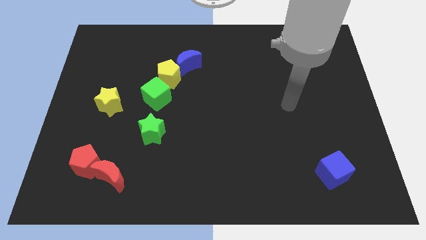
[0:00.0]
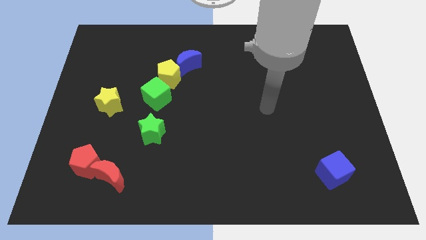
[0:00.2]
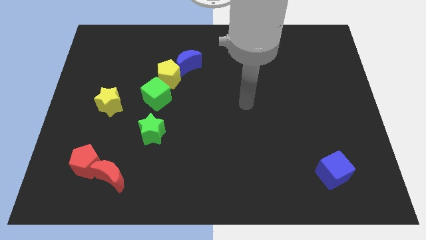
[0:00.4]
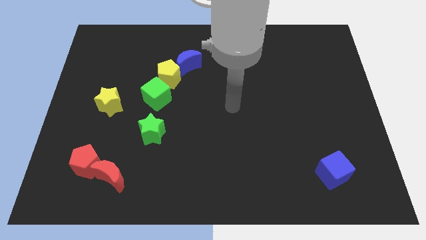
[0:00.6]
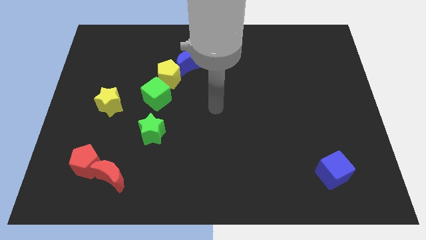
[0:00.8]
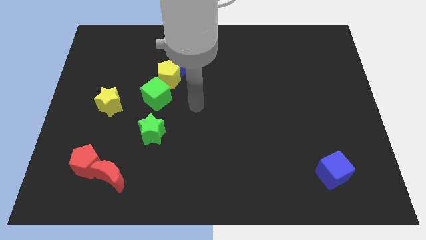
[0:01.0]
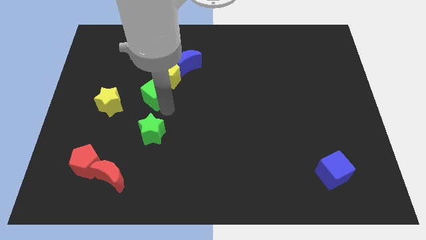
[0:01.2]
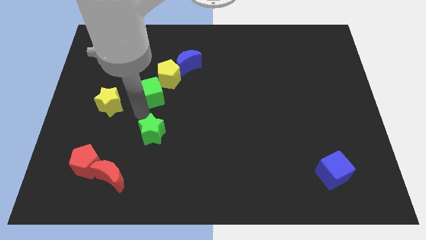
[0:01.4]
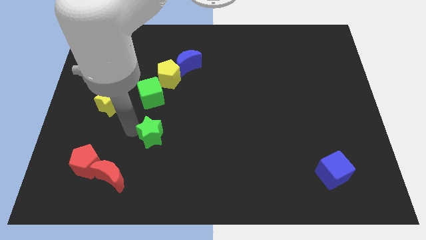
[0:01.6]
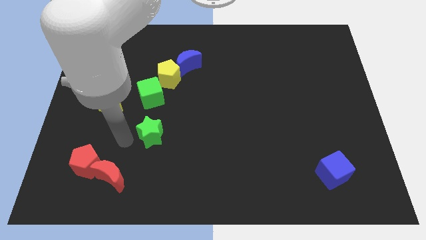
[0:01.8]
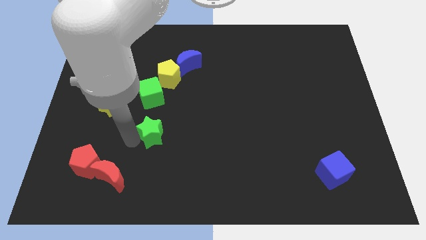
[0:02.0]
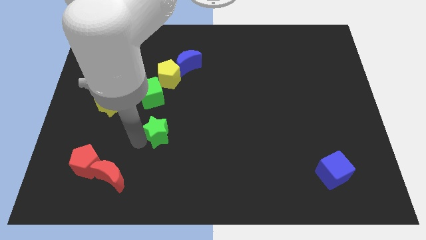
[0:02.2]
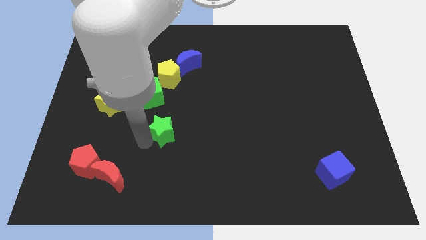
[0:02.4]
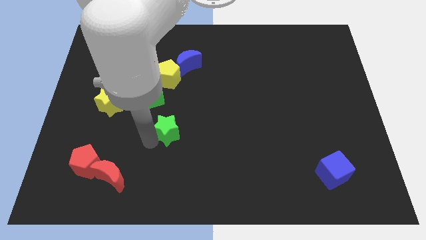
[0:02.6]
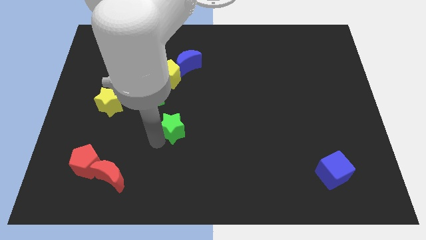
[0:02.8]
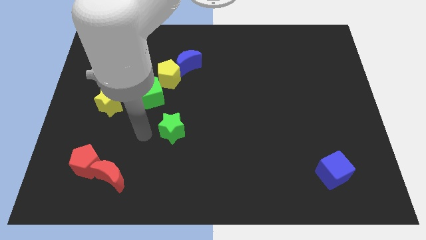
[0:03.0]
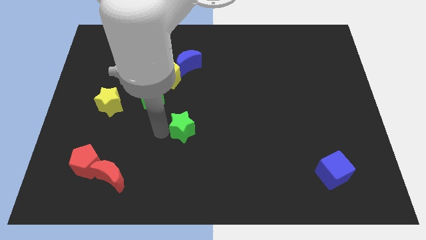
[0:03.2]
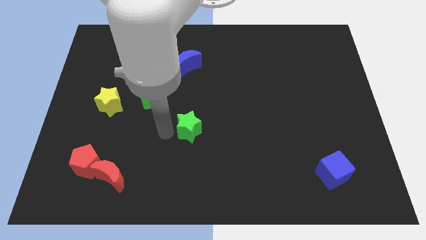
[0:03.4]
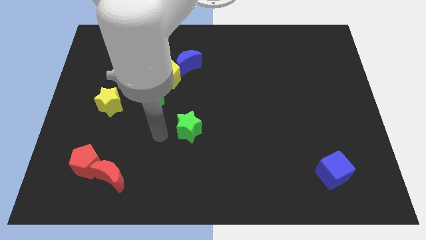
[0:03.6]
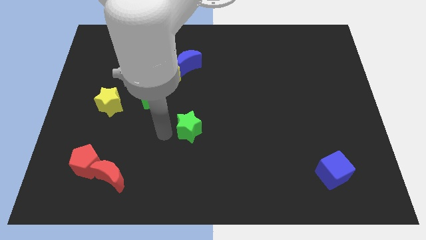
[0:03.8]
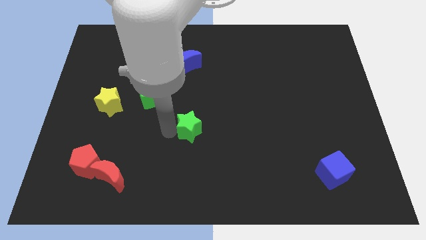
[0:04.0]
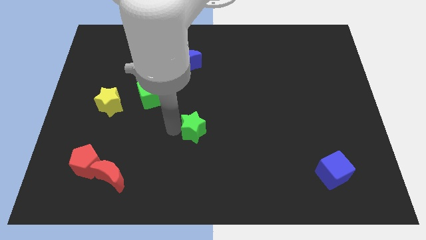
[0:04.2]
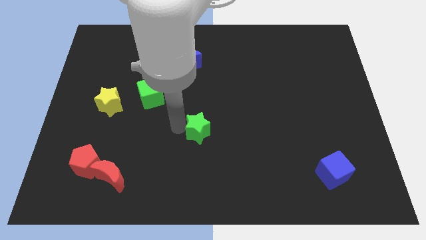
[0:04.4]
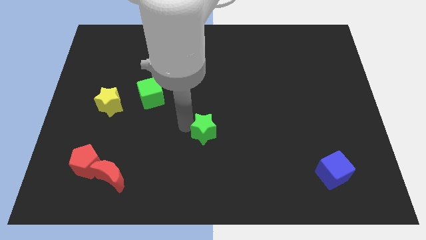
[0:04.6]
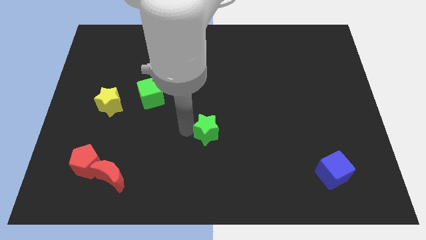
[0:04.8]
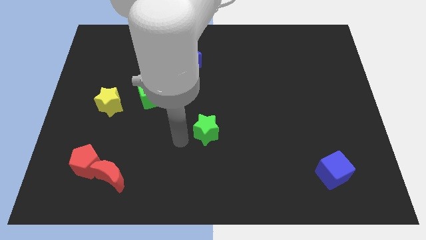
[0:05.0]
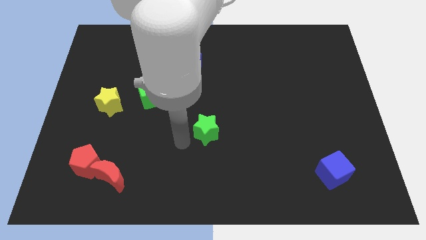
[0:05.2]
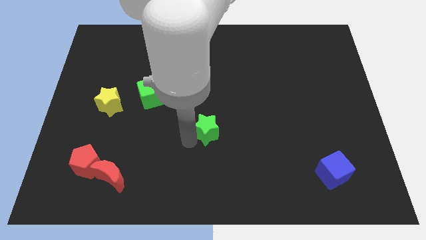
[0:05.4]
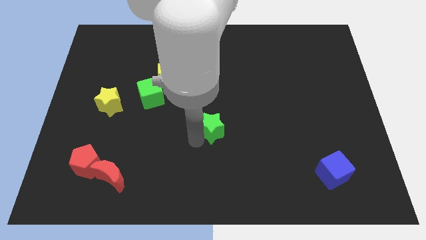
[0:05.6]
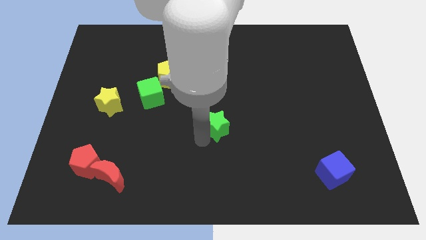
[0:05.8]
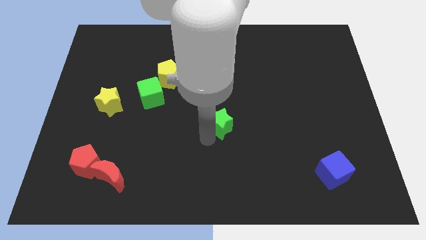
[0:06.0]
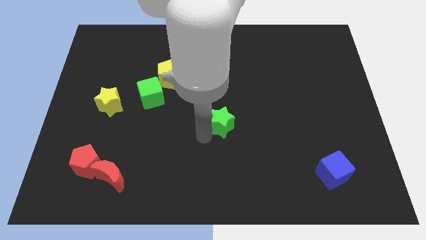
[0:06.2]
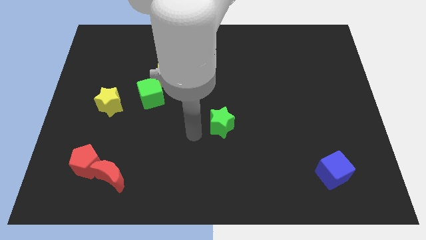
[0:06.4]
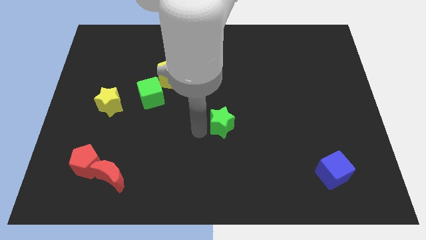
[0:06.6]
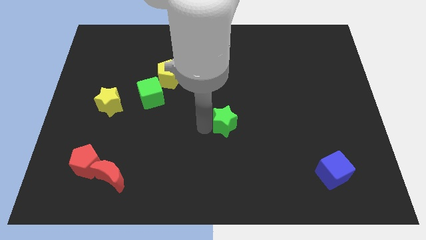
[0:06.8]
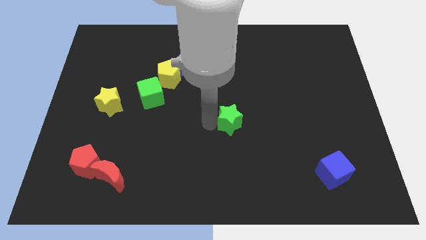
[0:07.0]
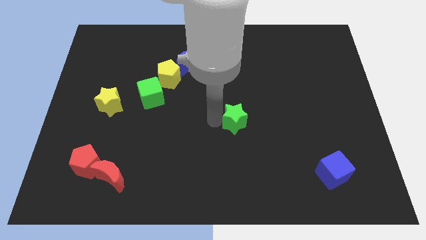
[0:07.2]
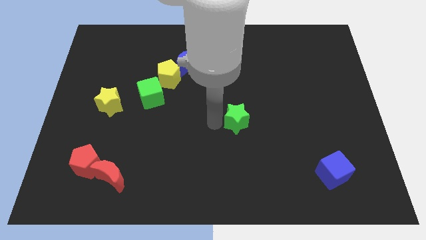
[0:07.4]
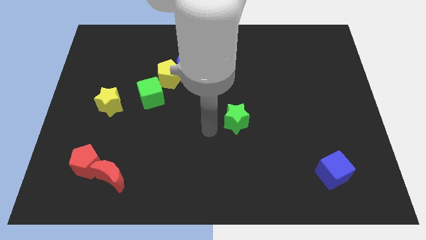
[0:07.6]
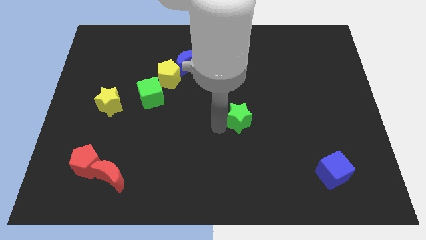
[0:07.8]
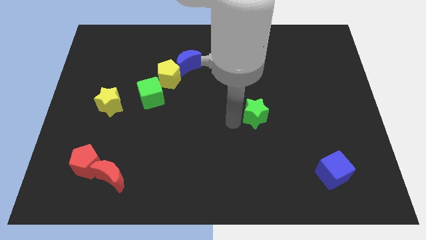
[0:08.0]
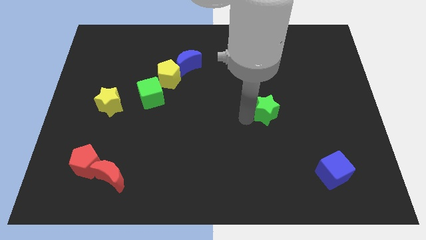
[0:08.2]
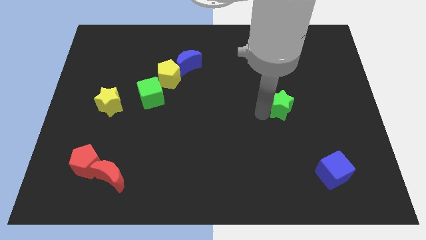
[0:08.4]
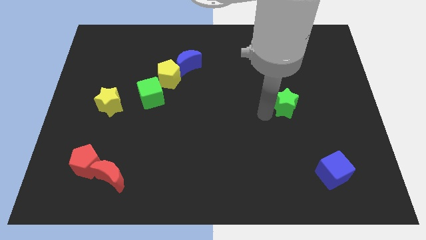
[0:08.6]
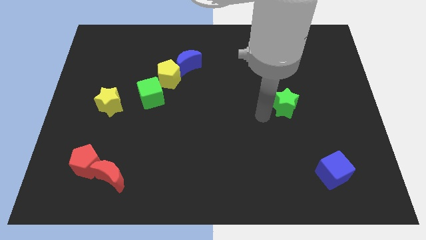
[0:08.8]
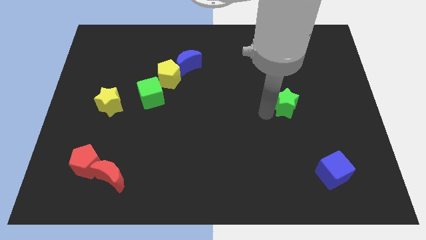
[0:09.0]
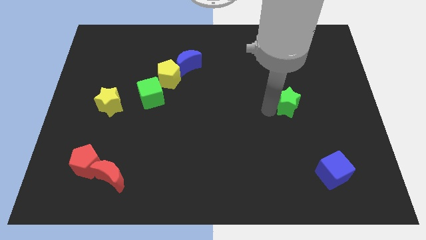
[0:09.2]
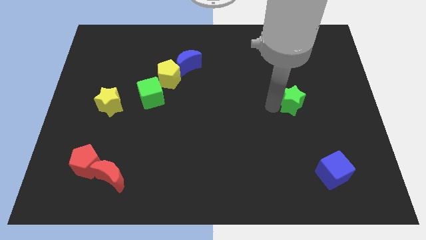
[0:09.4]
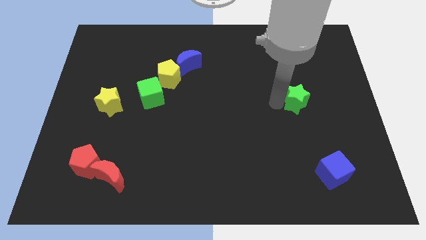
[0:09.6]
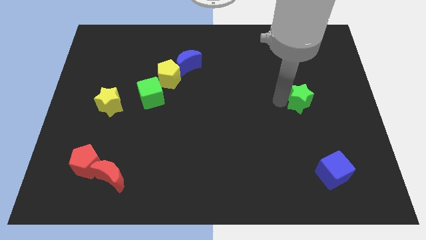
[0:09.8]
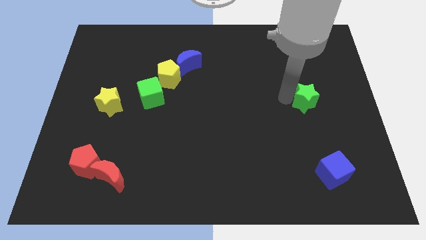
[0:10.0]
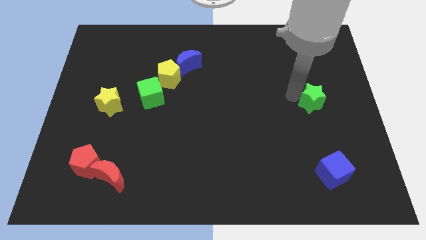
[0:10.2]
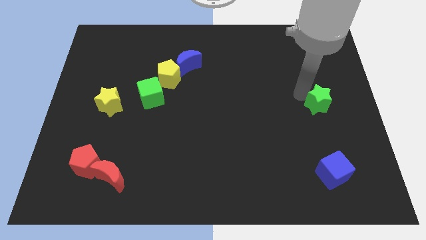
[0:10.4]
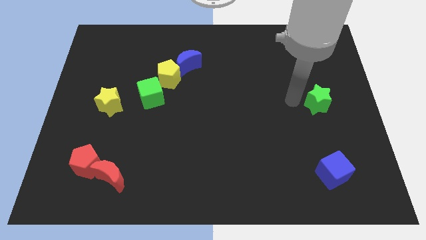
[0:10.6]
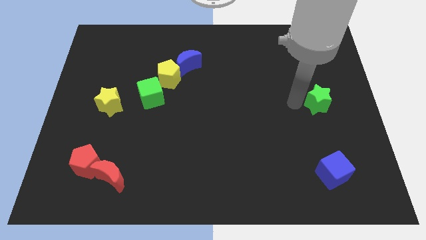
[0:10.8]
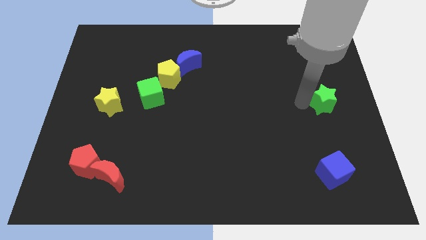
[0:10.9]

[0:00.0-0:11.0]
move the green star to the right side of the board

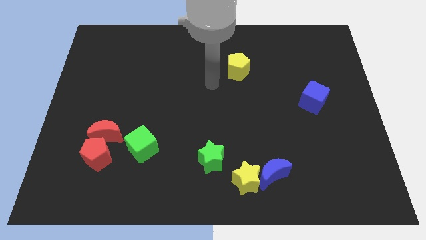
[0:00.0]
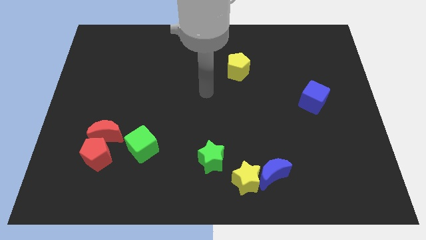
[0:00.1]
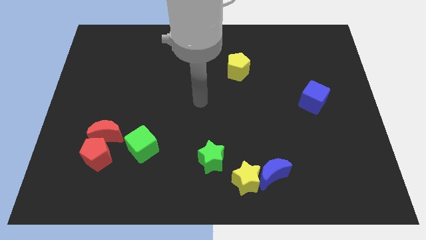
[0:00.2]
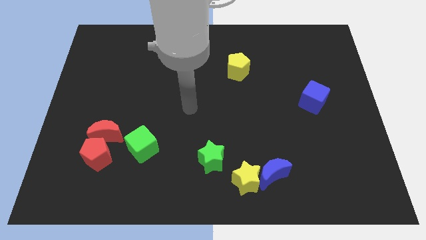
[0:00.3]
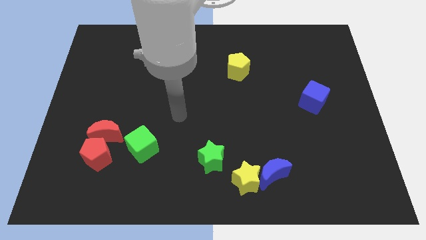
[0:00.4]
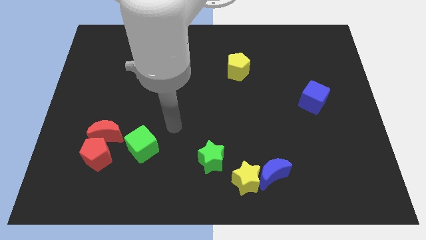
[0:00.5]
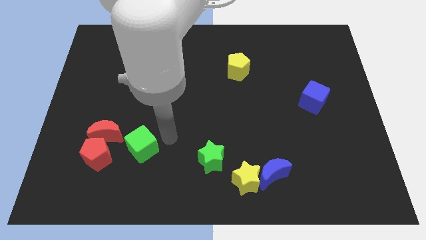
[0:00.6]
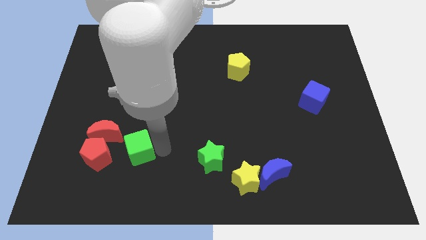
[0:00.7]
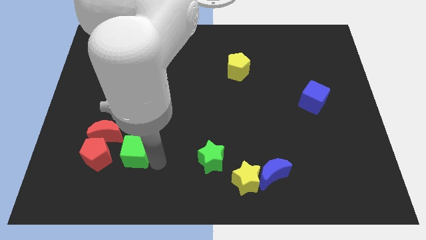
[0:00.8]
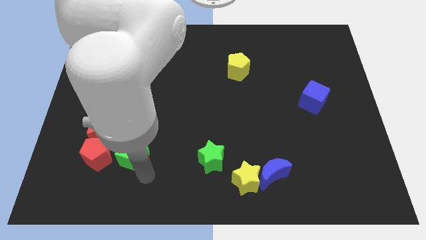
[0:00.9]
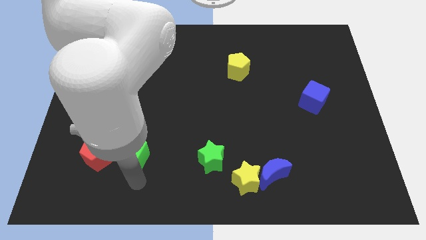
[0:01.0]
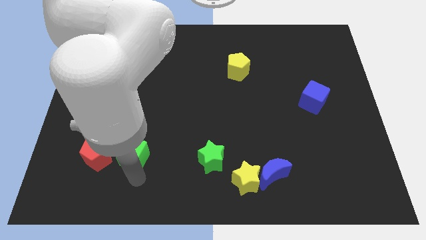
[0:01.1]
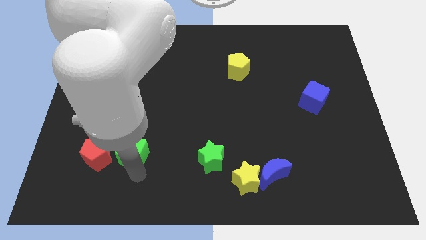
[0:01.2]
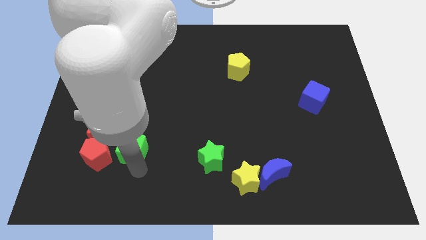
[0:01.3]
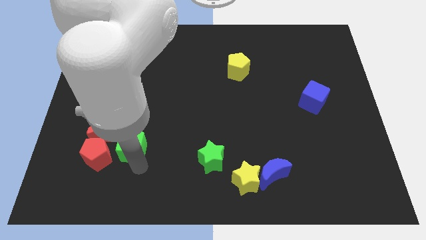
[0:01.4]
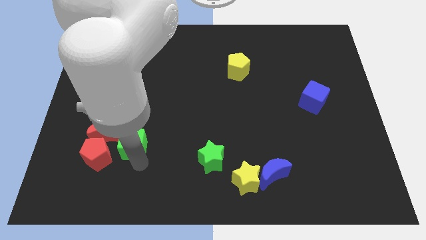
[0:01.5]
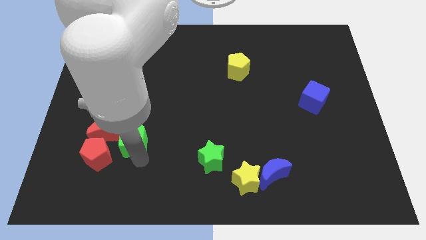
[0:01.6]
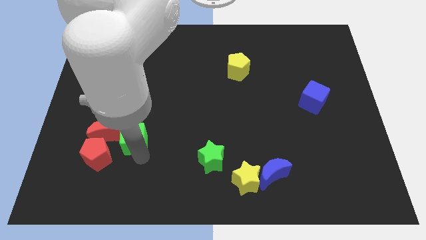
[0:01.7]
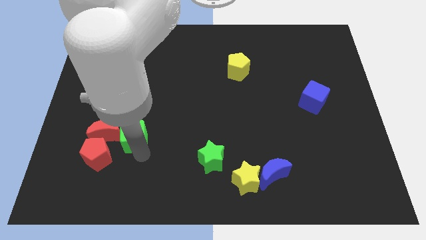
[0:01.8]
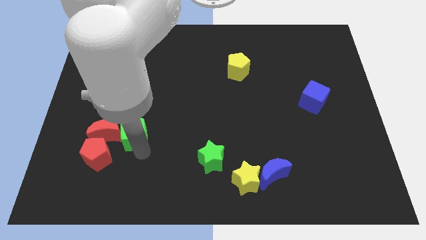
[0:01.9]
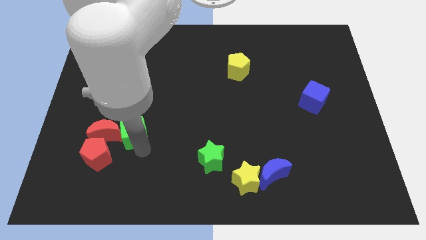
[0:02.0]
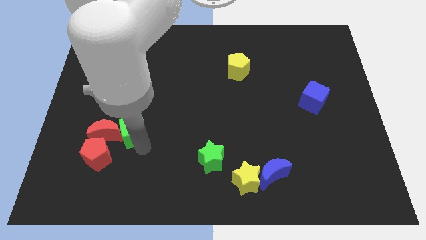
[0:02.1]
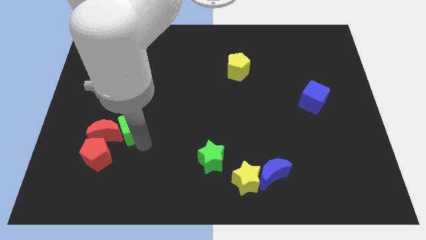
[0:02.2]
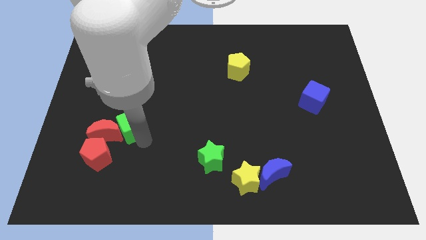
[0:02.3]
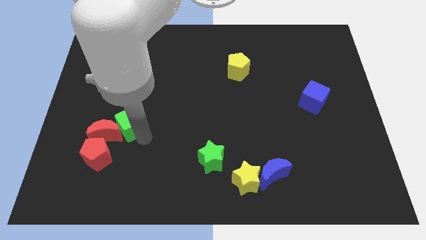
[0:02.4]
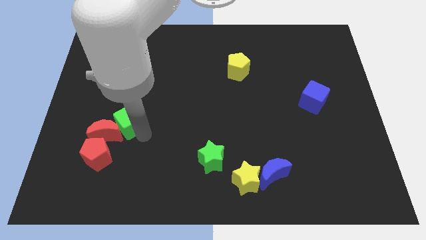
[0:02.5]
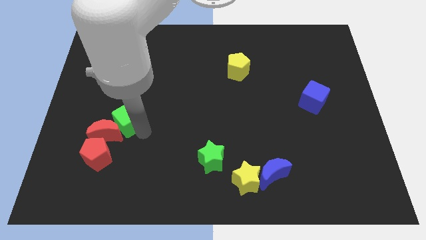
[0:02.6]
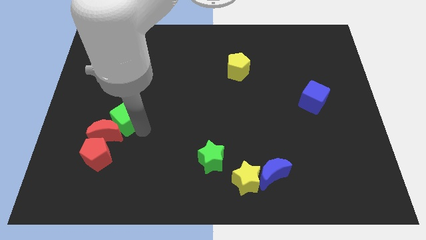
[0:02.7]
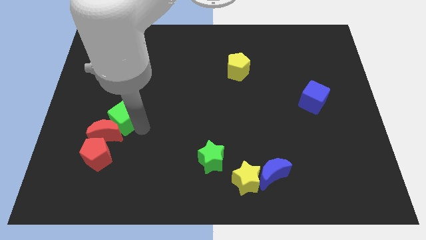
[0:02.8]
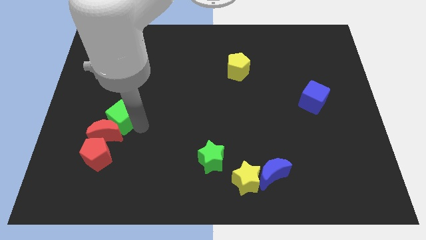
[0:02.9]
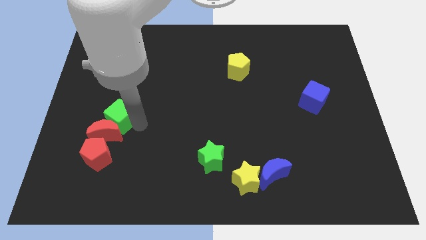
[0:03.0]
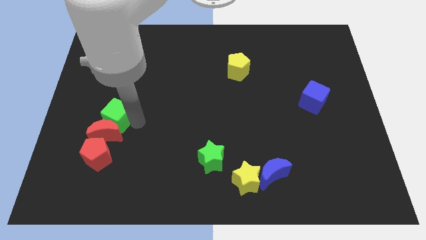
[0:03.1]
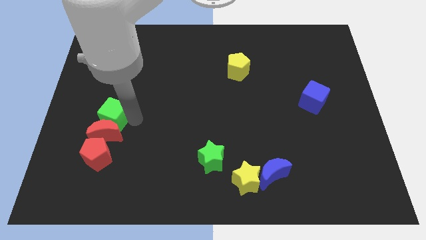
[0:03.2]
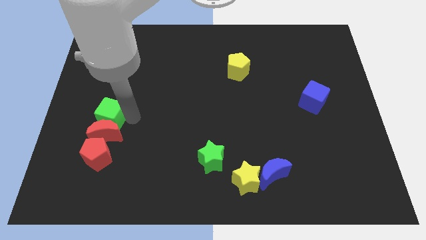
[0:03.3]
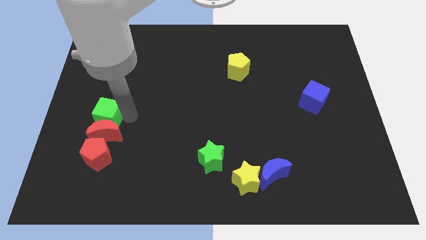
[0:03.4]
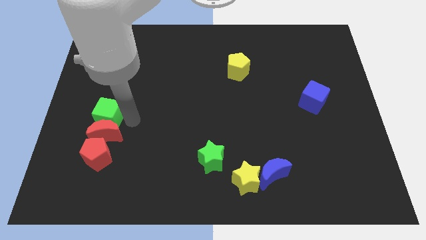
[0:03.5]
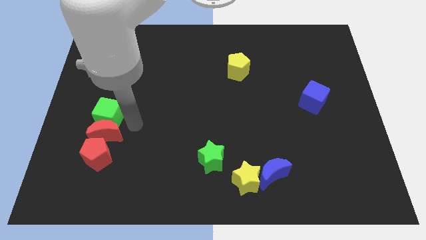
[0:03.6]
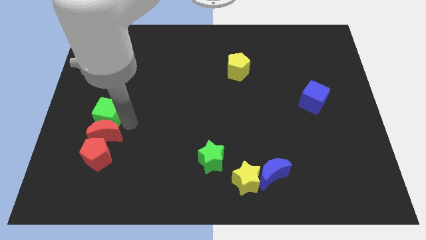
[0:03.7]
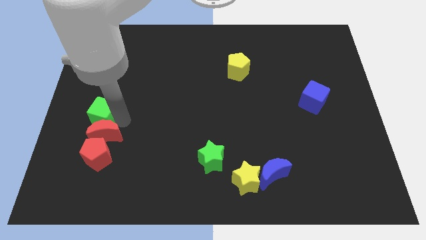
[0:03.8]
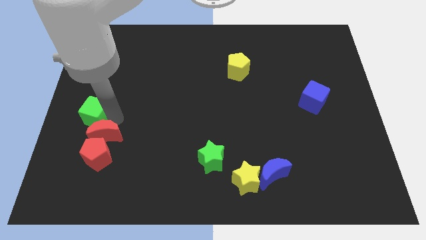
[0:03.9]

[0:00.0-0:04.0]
put the green cube to the left side
